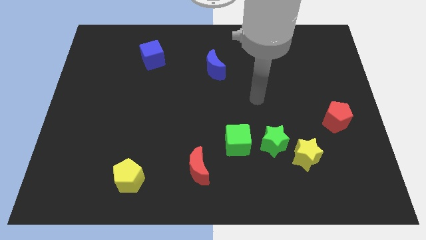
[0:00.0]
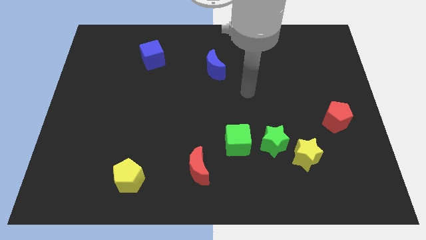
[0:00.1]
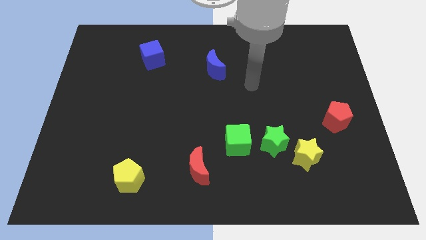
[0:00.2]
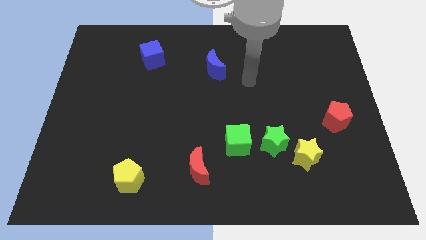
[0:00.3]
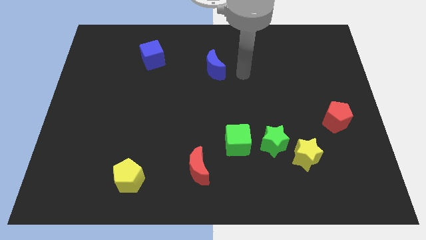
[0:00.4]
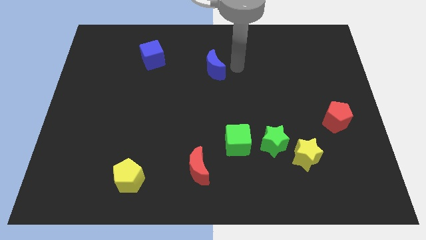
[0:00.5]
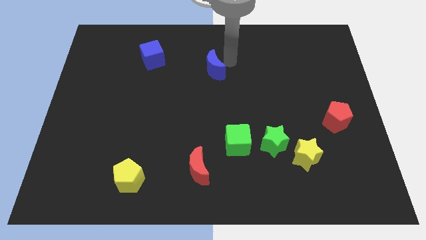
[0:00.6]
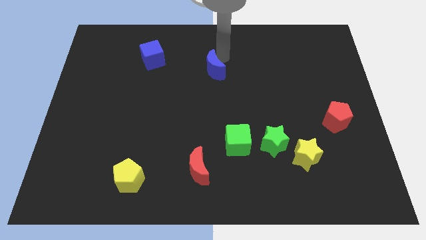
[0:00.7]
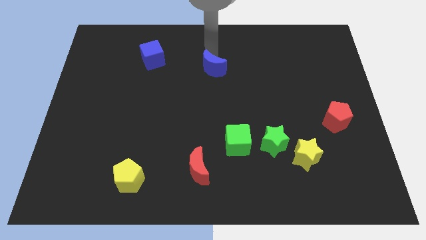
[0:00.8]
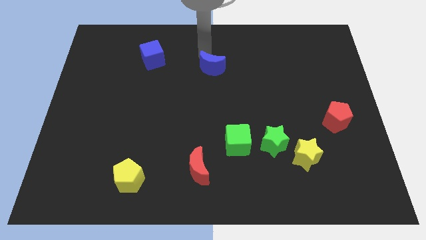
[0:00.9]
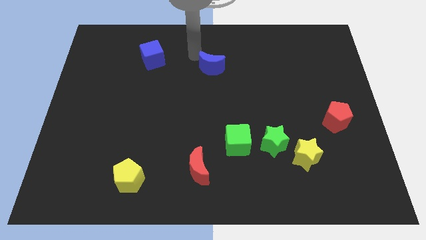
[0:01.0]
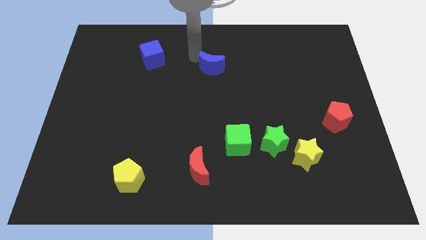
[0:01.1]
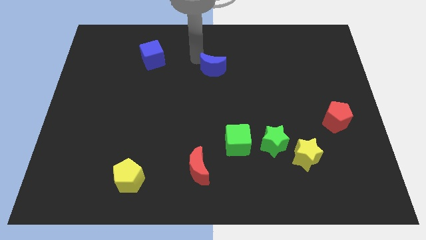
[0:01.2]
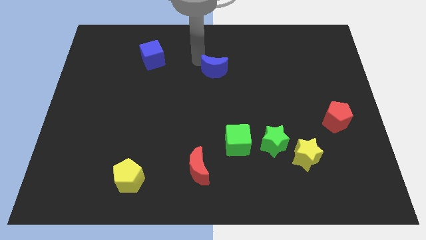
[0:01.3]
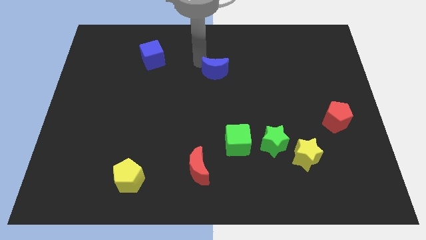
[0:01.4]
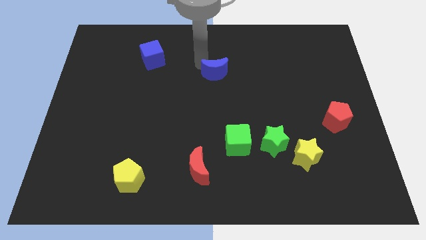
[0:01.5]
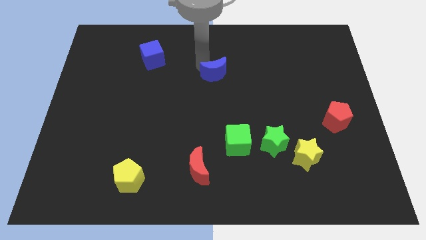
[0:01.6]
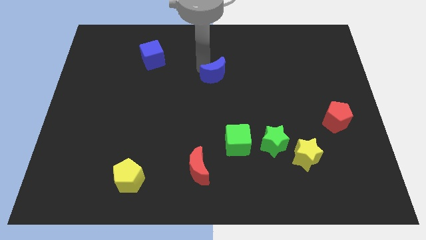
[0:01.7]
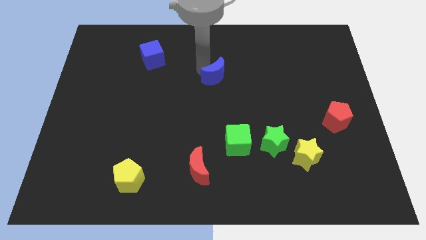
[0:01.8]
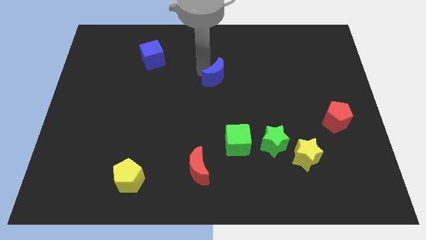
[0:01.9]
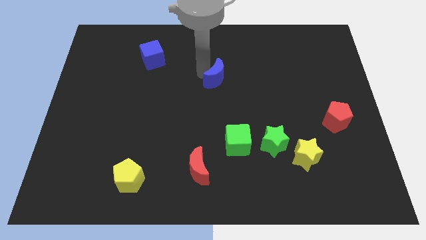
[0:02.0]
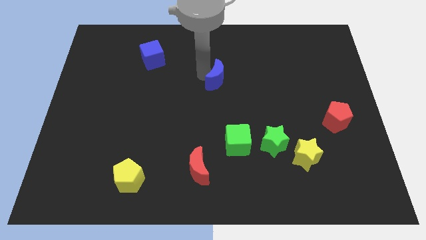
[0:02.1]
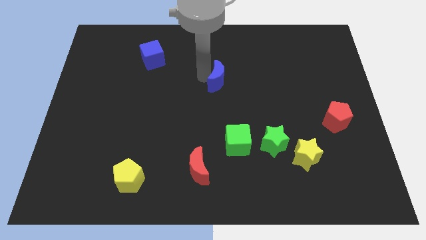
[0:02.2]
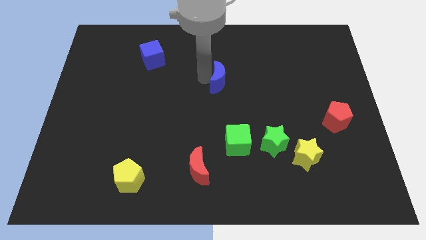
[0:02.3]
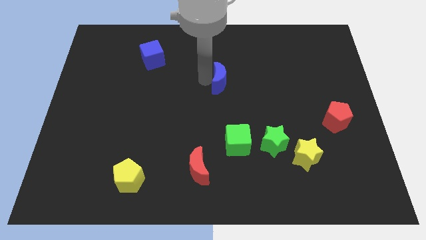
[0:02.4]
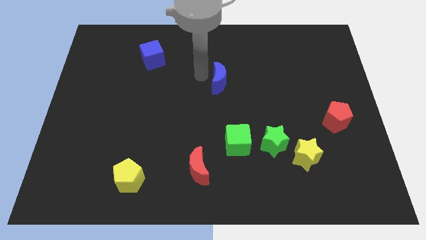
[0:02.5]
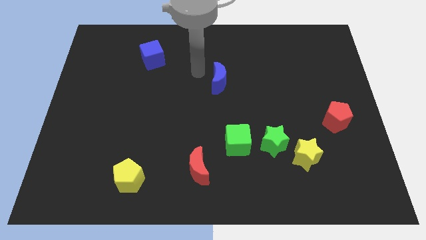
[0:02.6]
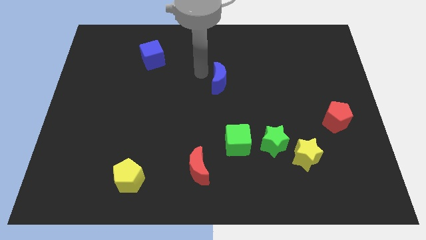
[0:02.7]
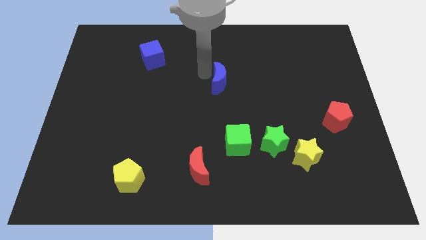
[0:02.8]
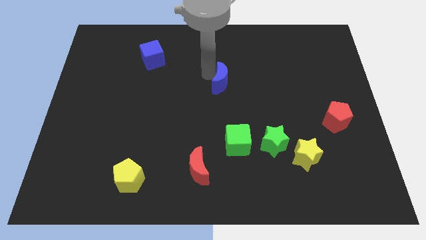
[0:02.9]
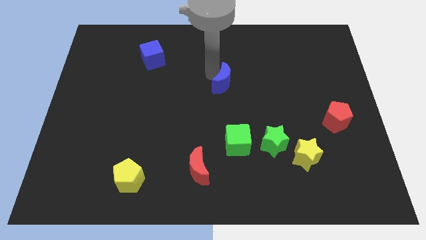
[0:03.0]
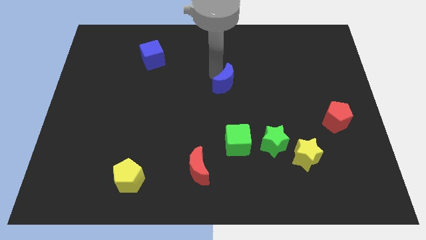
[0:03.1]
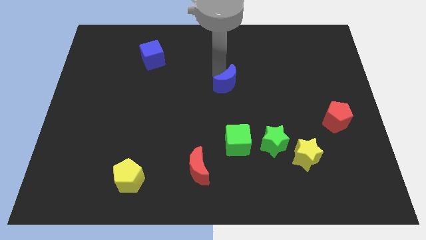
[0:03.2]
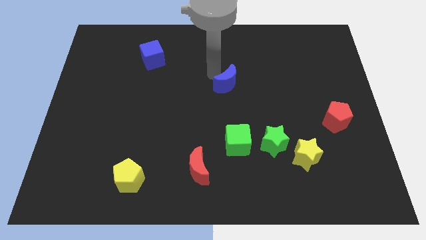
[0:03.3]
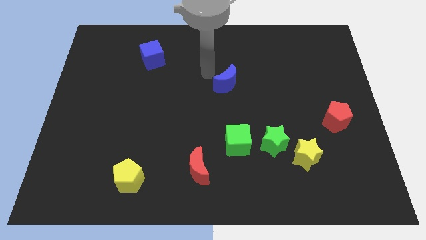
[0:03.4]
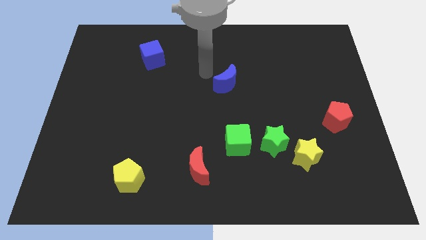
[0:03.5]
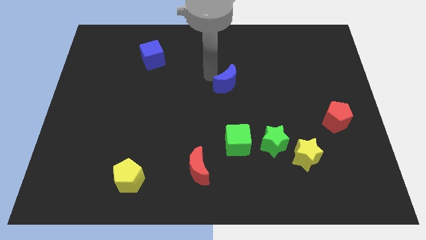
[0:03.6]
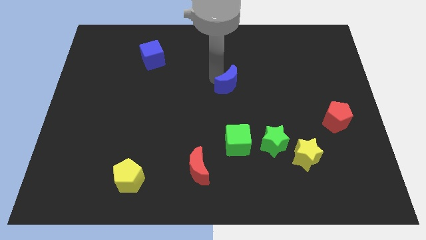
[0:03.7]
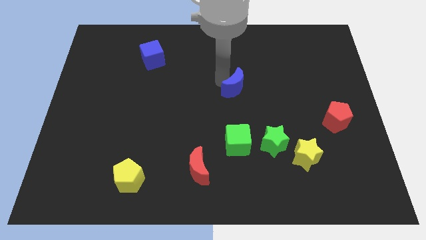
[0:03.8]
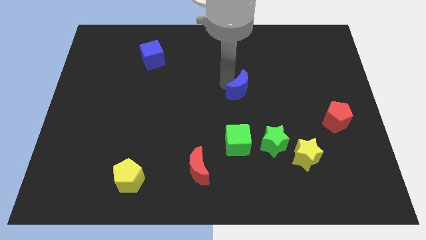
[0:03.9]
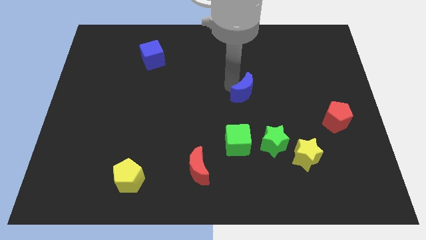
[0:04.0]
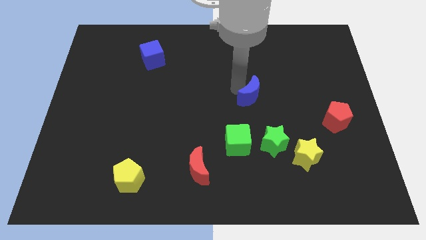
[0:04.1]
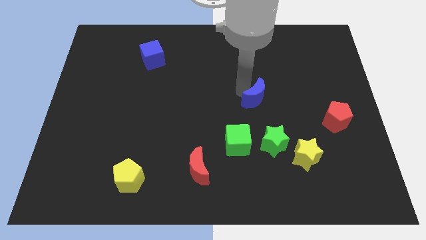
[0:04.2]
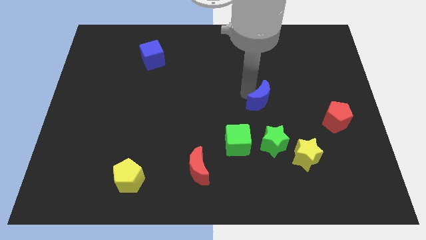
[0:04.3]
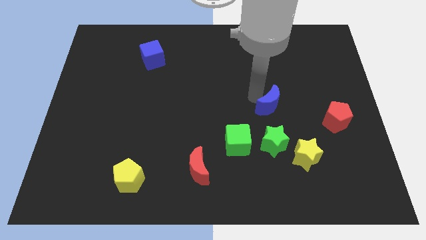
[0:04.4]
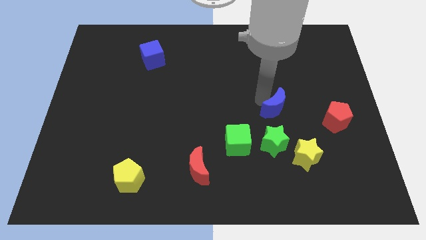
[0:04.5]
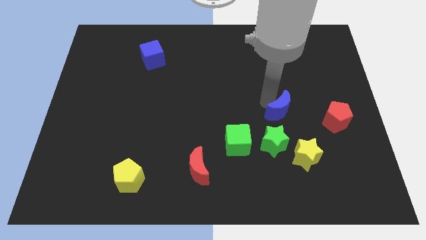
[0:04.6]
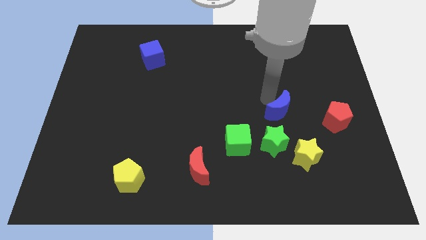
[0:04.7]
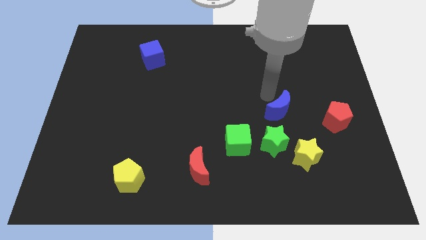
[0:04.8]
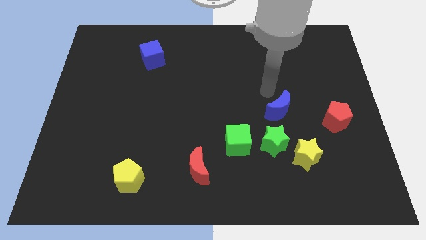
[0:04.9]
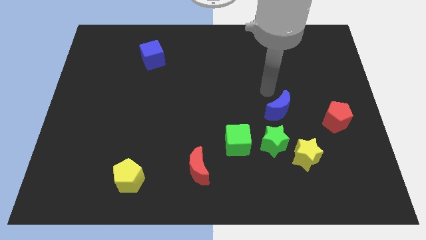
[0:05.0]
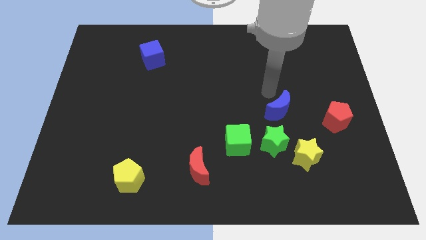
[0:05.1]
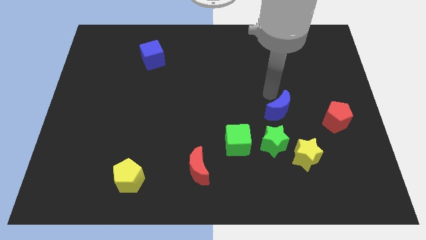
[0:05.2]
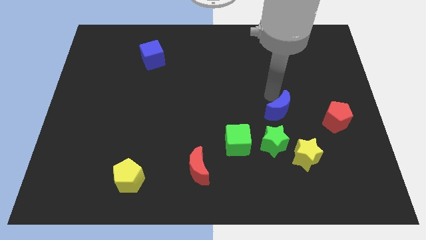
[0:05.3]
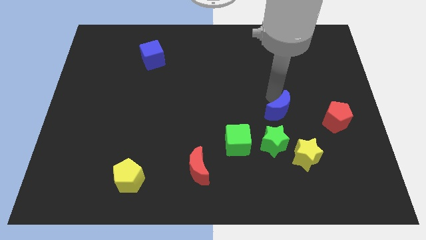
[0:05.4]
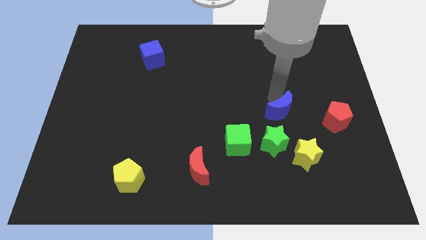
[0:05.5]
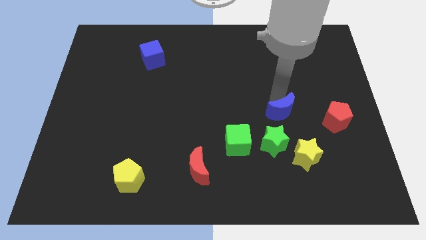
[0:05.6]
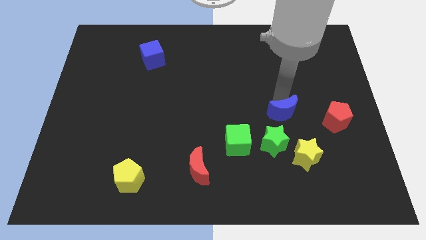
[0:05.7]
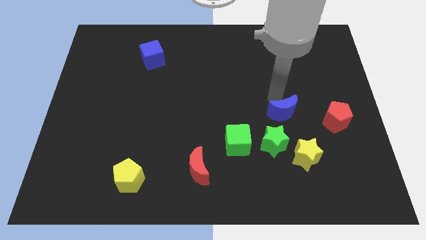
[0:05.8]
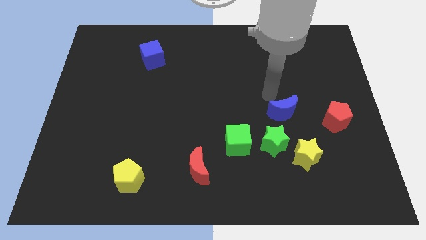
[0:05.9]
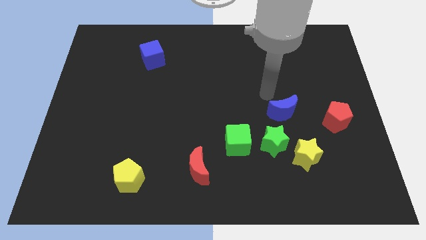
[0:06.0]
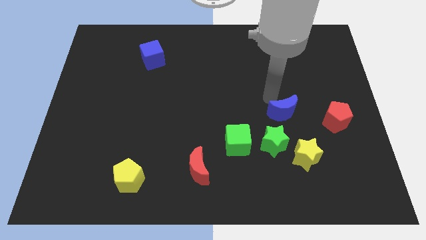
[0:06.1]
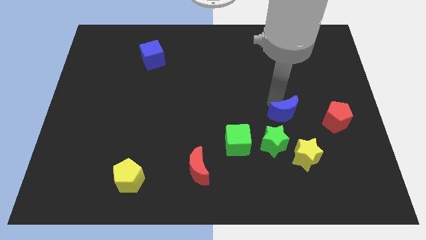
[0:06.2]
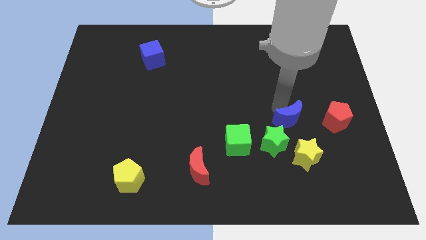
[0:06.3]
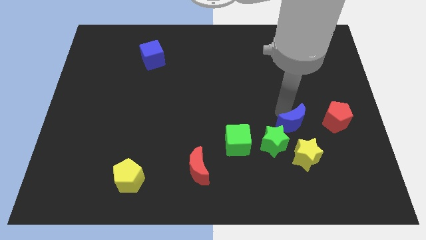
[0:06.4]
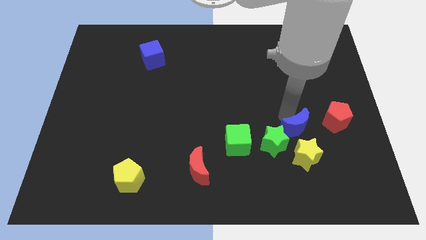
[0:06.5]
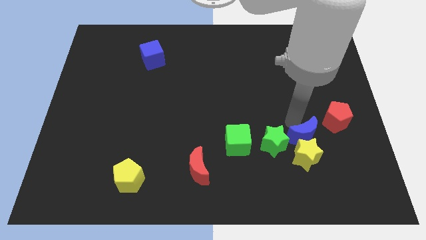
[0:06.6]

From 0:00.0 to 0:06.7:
move the blue moon close to the yellow star

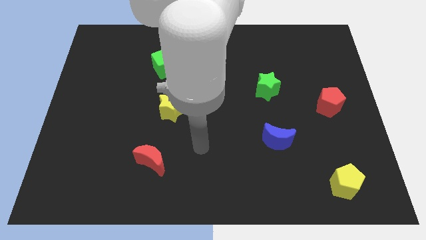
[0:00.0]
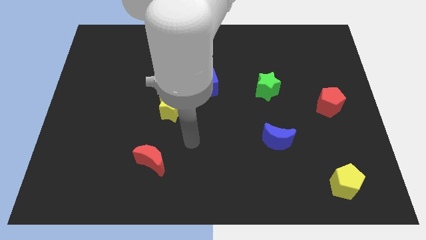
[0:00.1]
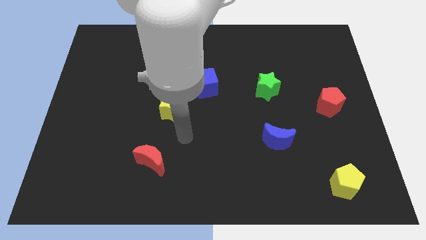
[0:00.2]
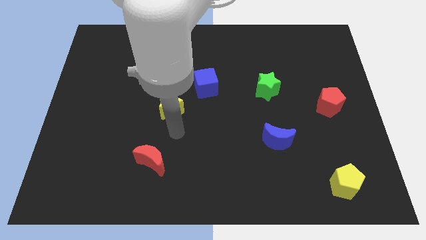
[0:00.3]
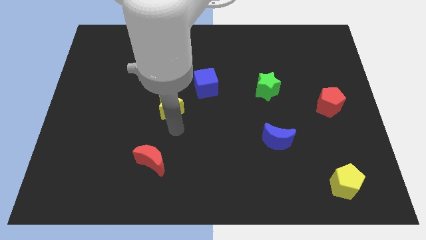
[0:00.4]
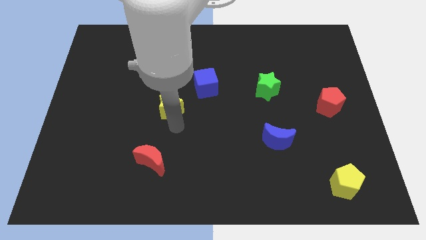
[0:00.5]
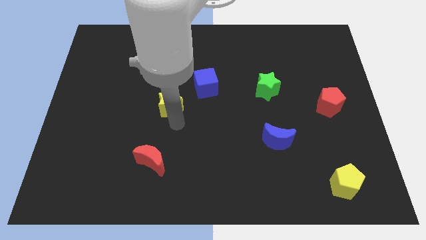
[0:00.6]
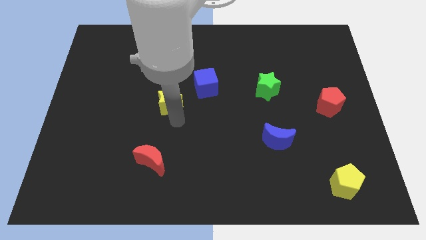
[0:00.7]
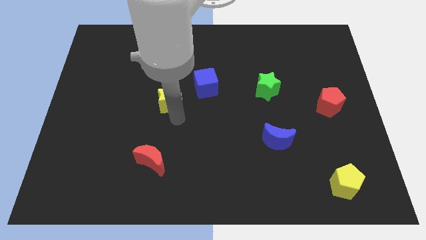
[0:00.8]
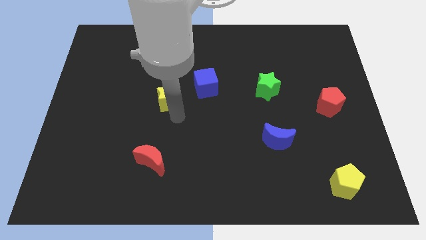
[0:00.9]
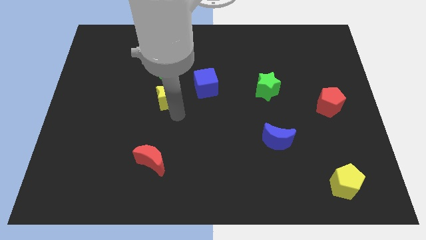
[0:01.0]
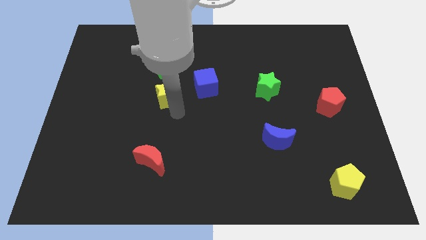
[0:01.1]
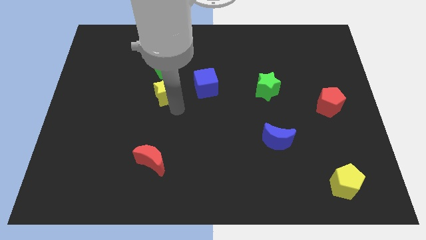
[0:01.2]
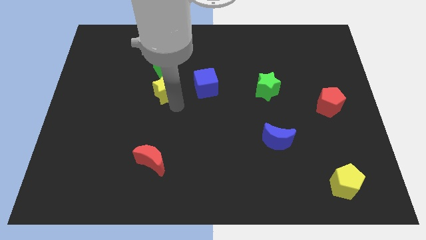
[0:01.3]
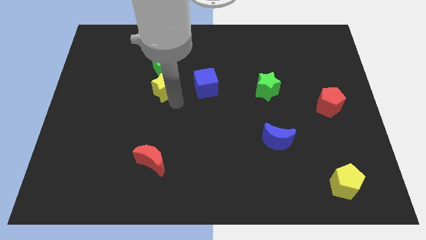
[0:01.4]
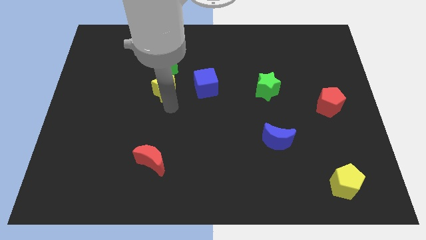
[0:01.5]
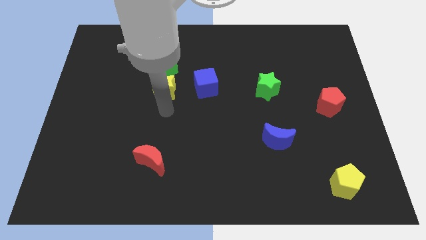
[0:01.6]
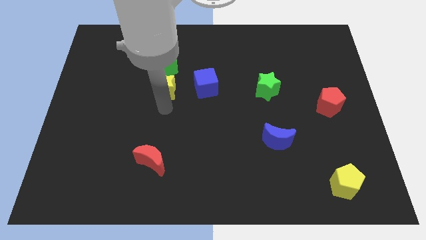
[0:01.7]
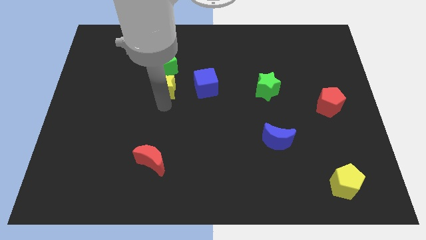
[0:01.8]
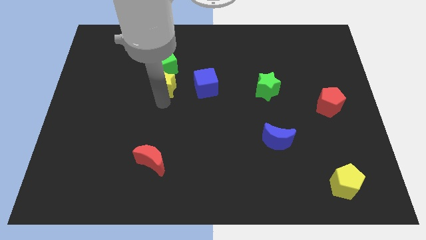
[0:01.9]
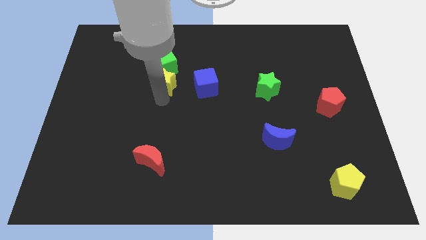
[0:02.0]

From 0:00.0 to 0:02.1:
move the yellow star towards the green cube
